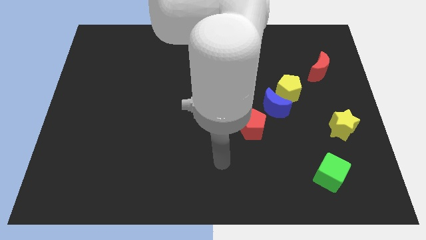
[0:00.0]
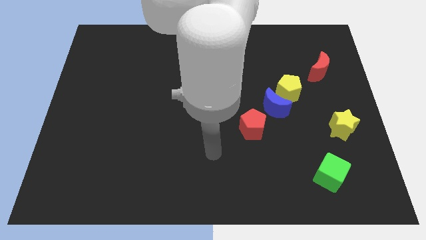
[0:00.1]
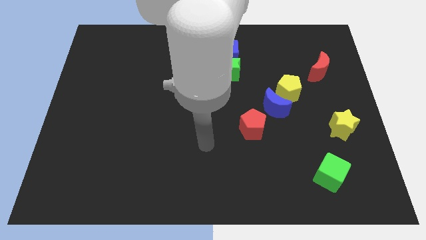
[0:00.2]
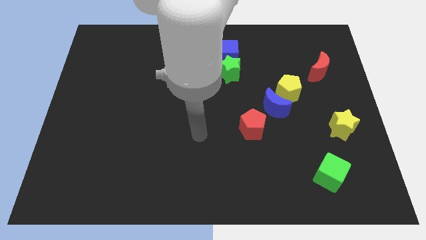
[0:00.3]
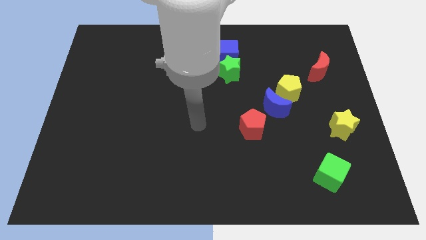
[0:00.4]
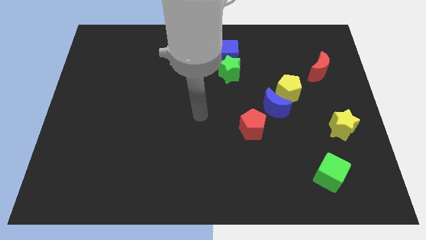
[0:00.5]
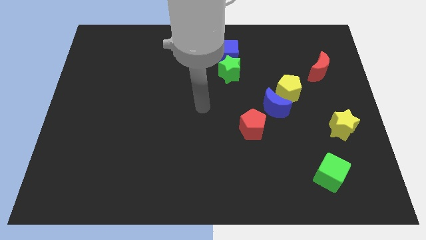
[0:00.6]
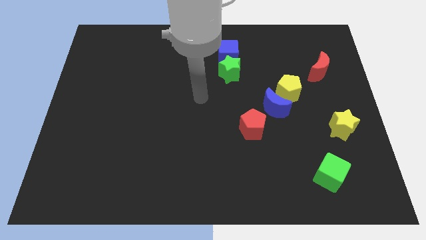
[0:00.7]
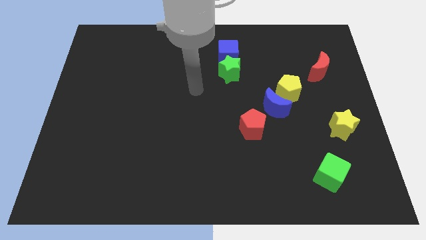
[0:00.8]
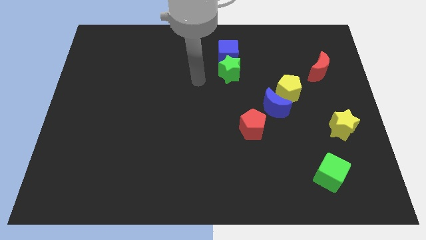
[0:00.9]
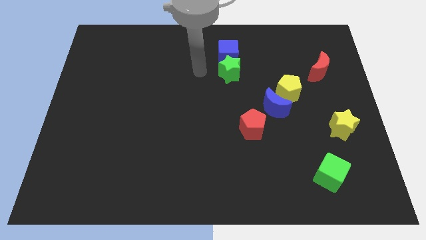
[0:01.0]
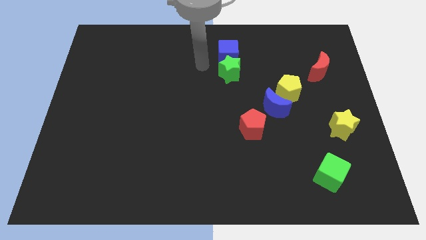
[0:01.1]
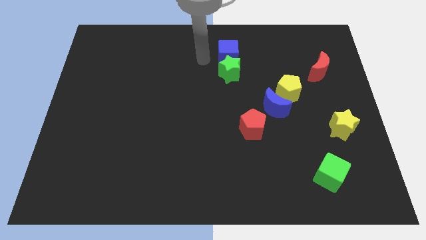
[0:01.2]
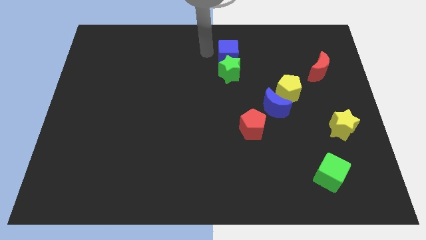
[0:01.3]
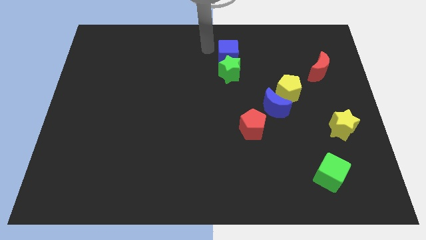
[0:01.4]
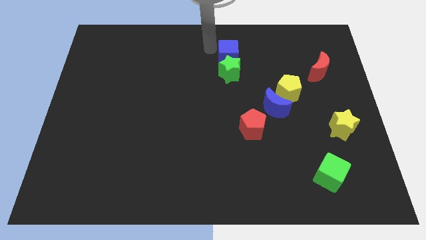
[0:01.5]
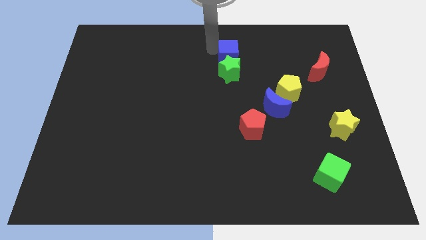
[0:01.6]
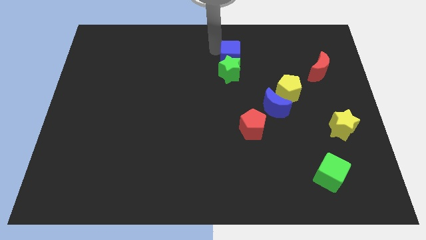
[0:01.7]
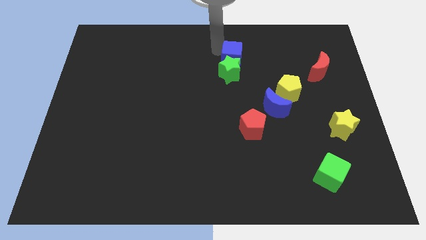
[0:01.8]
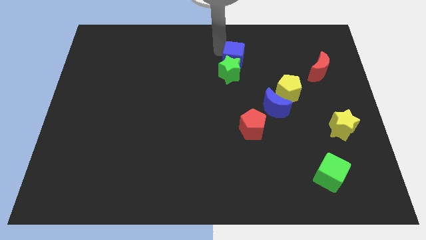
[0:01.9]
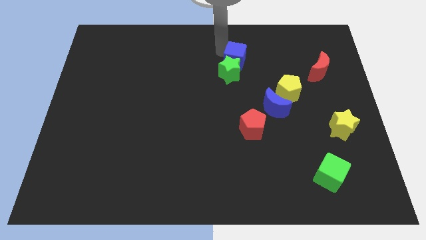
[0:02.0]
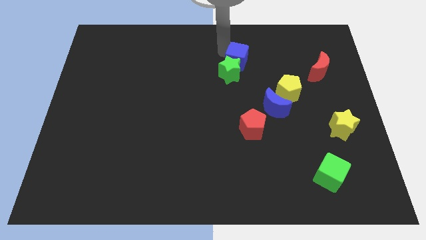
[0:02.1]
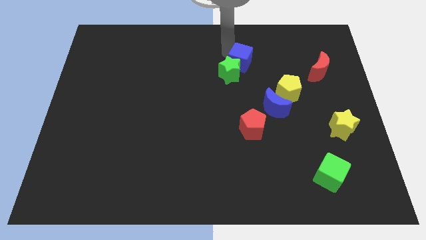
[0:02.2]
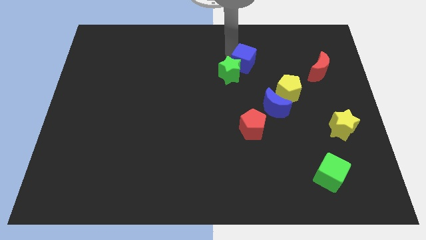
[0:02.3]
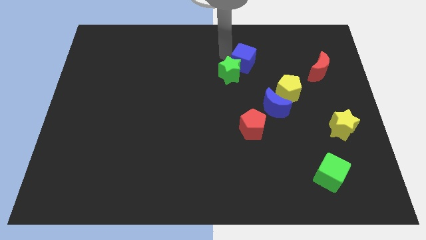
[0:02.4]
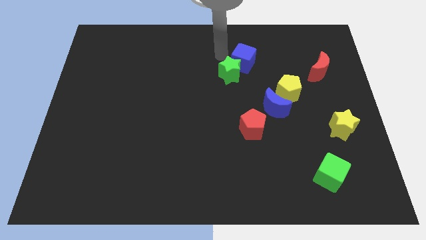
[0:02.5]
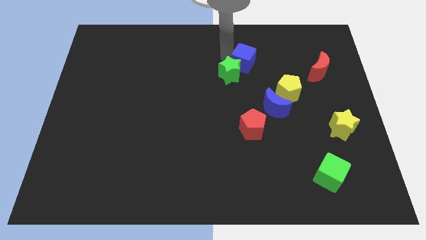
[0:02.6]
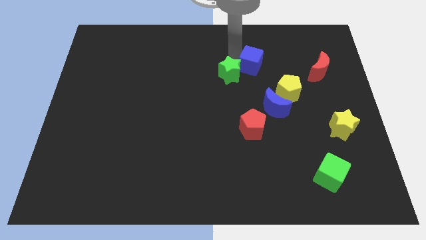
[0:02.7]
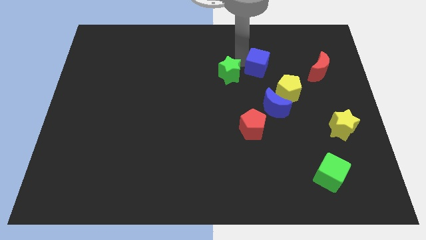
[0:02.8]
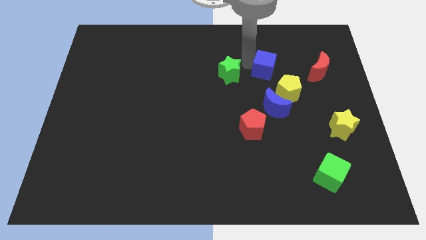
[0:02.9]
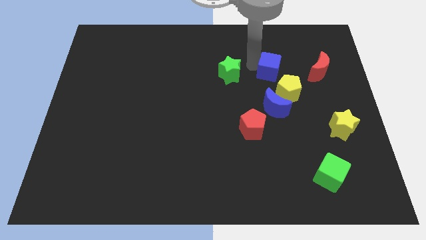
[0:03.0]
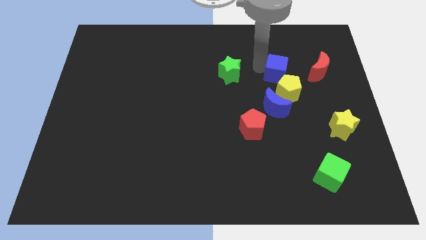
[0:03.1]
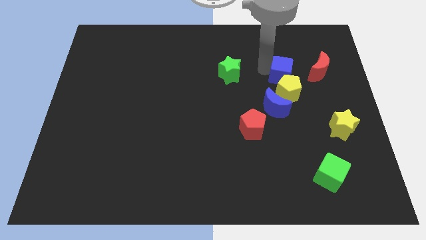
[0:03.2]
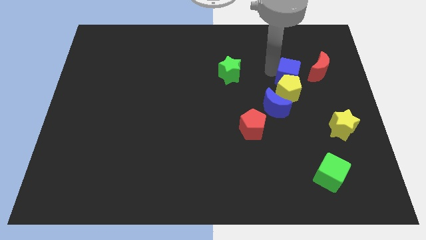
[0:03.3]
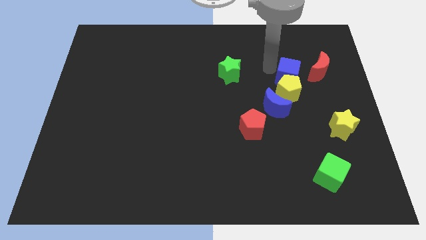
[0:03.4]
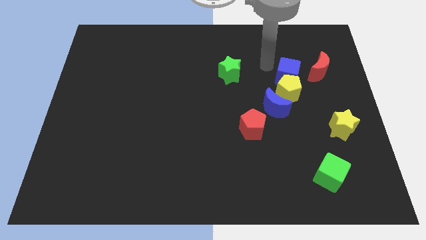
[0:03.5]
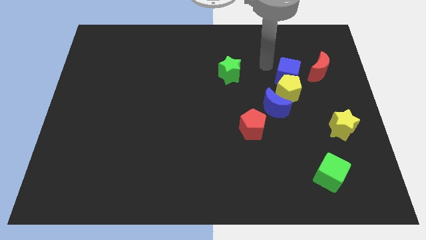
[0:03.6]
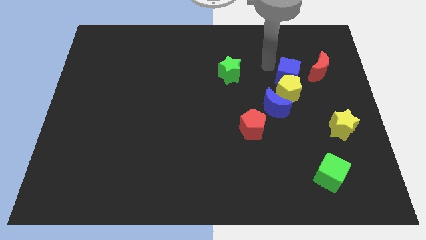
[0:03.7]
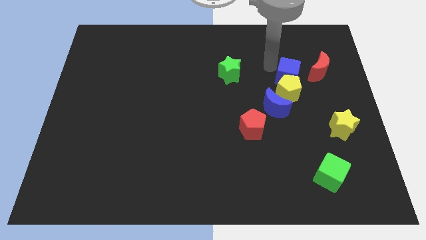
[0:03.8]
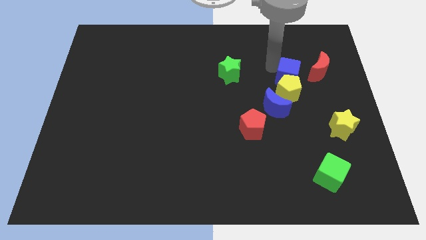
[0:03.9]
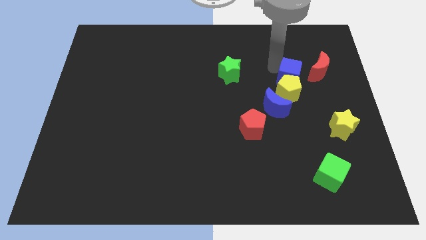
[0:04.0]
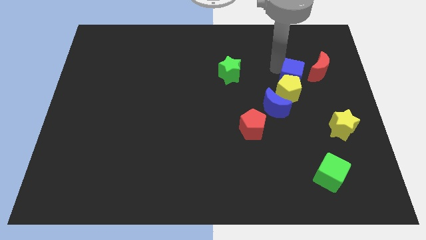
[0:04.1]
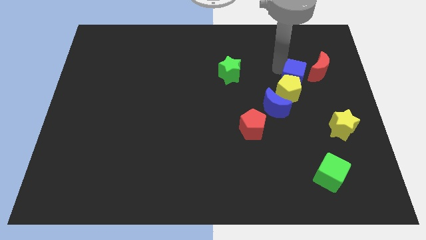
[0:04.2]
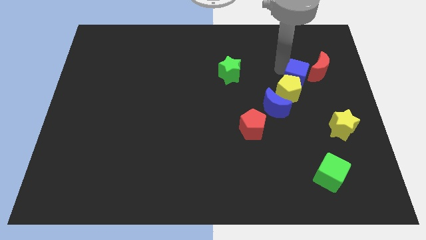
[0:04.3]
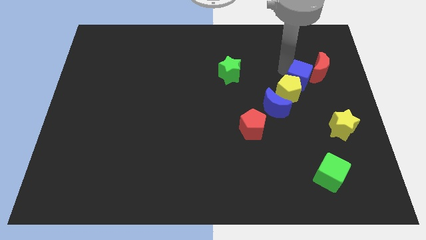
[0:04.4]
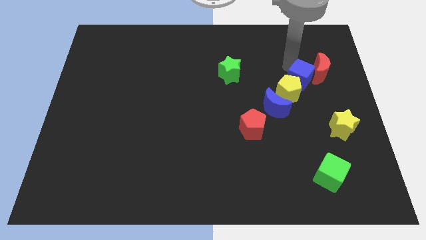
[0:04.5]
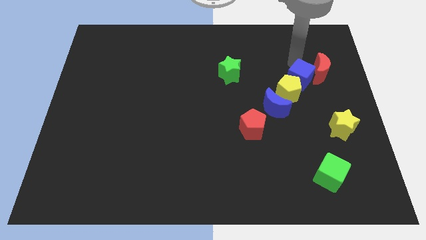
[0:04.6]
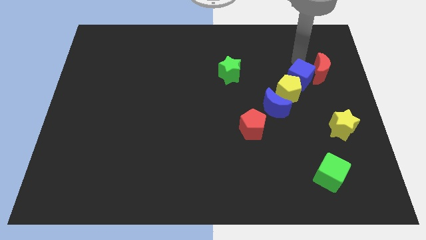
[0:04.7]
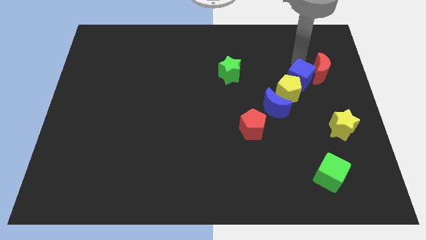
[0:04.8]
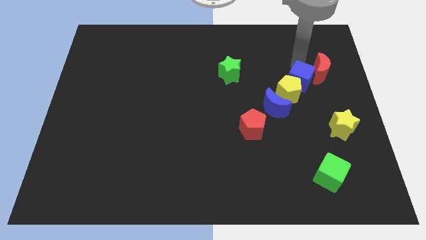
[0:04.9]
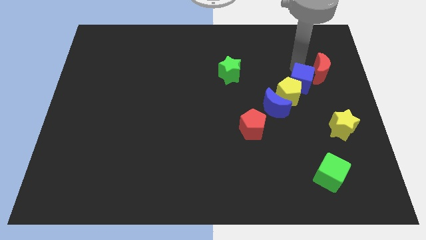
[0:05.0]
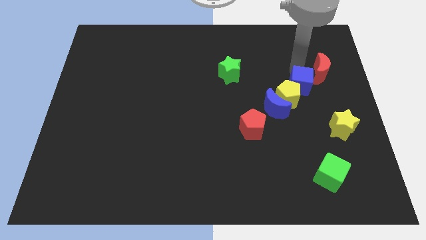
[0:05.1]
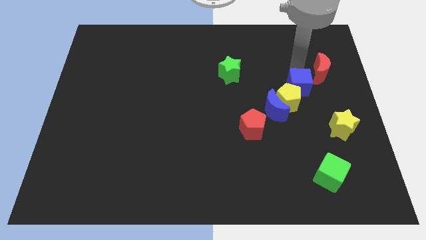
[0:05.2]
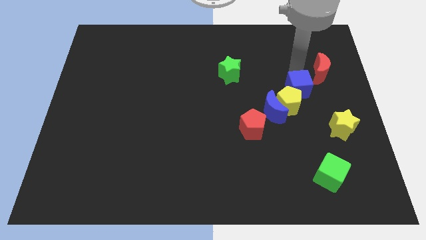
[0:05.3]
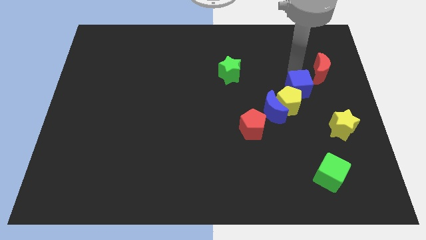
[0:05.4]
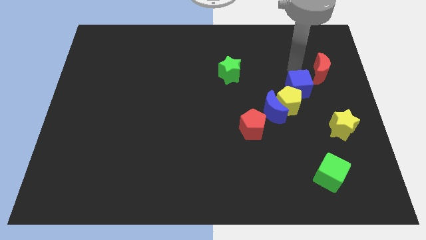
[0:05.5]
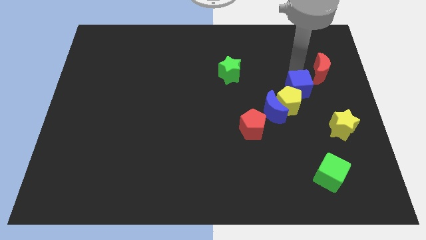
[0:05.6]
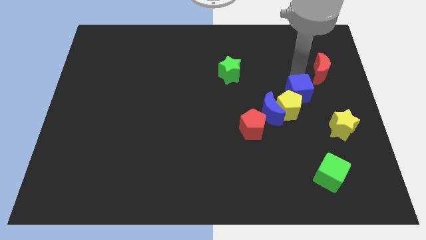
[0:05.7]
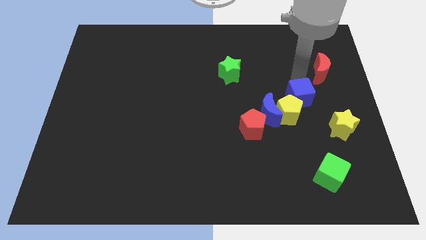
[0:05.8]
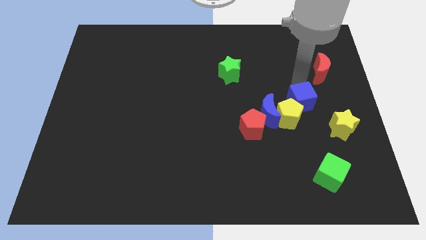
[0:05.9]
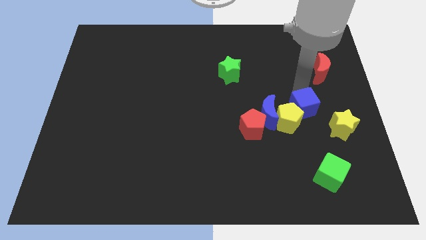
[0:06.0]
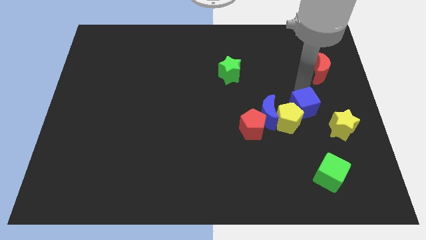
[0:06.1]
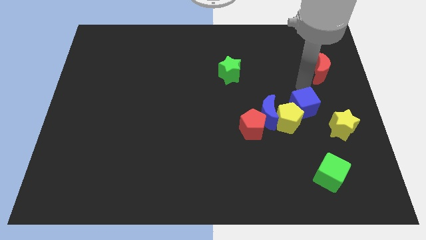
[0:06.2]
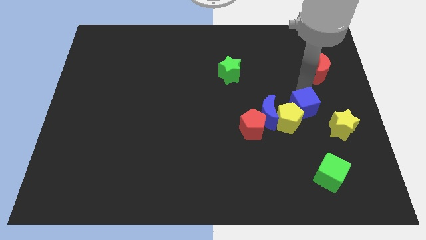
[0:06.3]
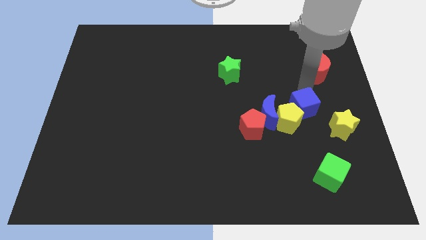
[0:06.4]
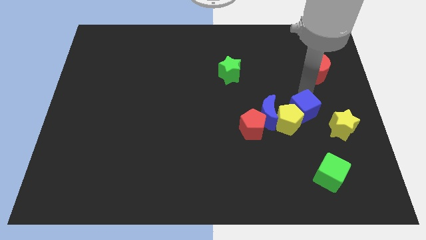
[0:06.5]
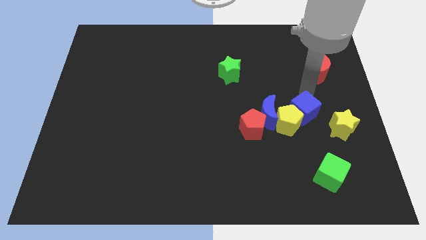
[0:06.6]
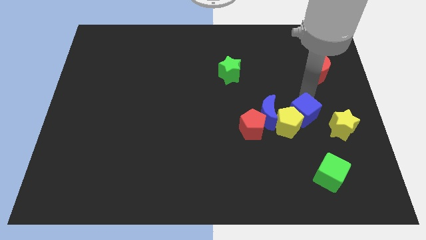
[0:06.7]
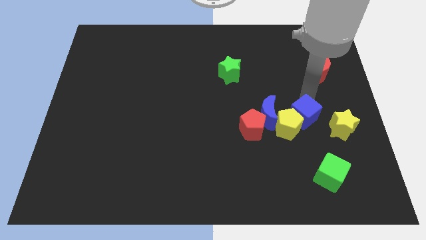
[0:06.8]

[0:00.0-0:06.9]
push the blue cube to the top side of the green cube

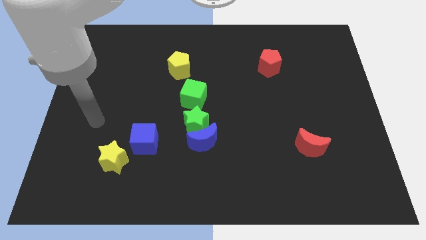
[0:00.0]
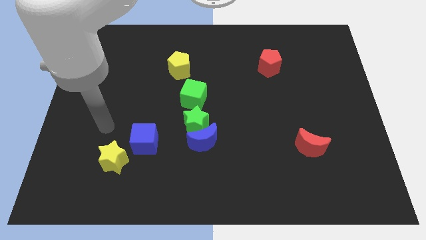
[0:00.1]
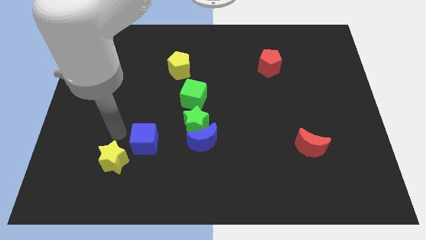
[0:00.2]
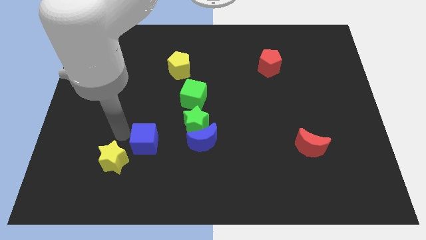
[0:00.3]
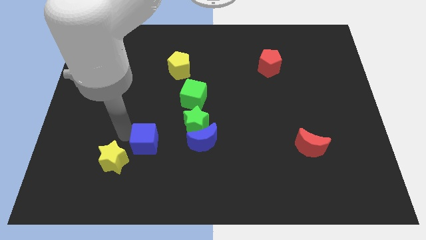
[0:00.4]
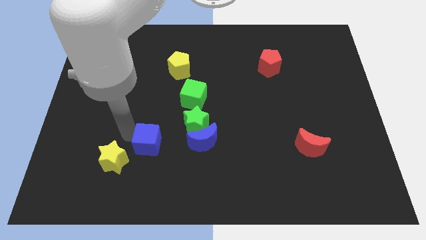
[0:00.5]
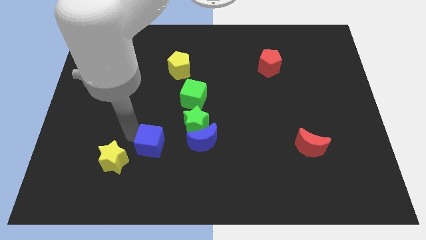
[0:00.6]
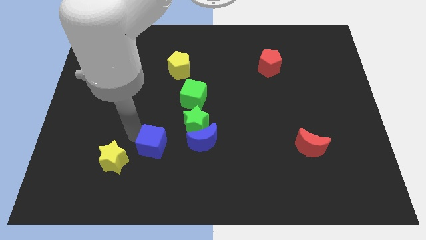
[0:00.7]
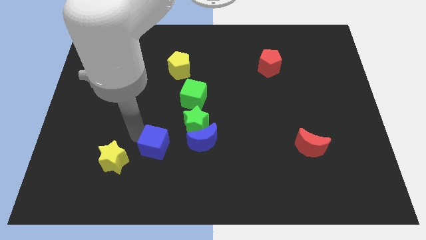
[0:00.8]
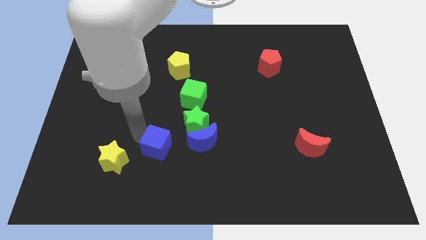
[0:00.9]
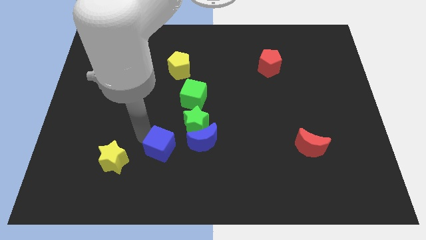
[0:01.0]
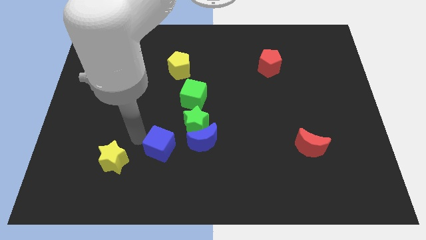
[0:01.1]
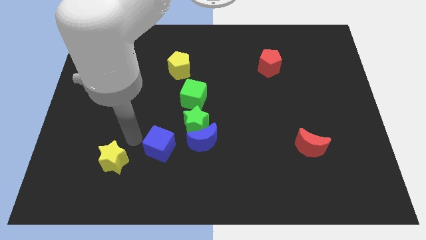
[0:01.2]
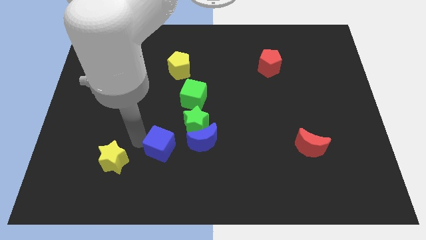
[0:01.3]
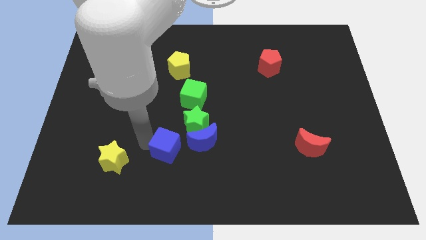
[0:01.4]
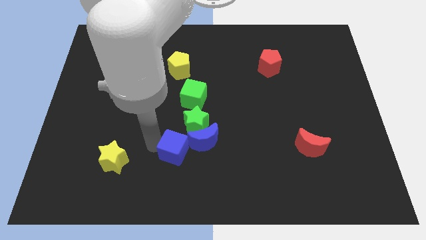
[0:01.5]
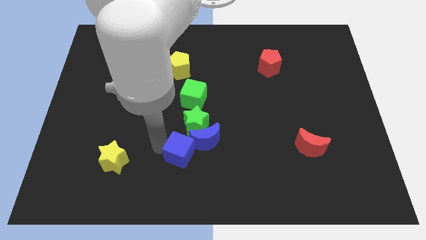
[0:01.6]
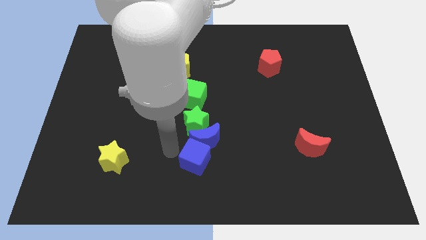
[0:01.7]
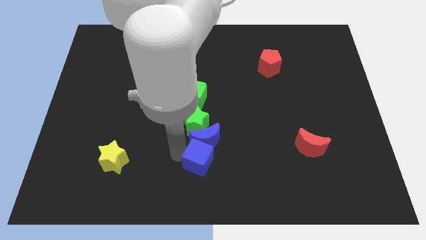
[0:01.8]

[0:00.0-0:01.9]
move the blue cube to the bottom right side of the blue moon
